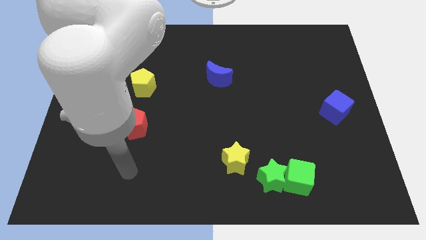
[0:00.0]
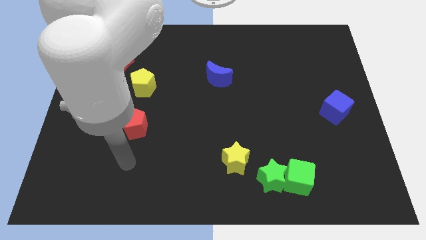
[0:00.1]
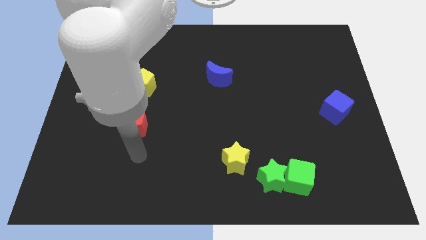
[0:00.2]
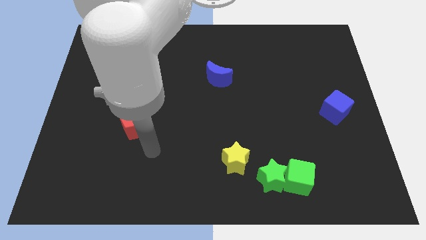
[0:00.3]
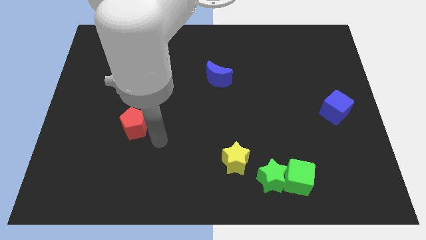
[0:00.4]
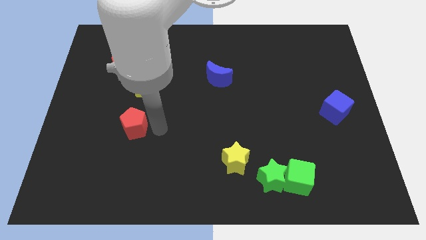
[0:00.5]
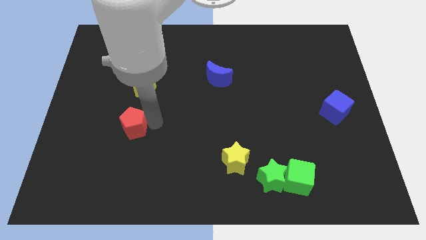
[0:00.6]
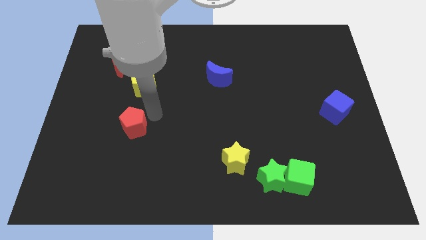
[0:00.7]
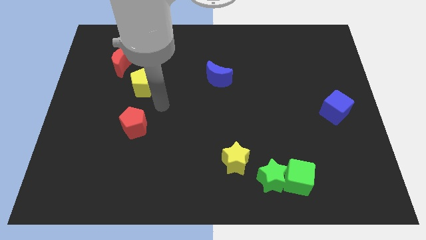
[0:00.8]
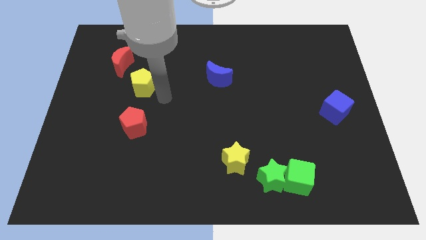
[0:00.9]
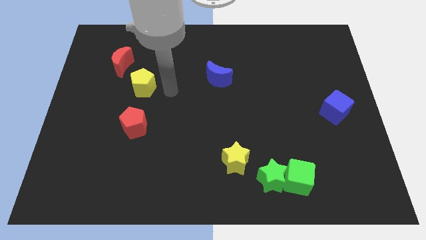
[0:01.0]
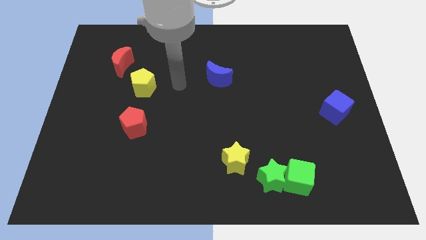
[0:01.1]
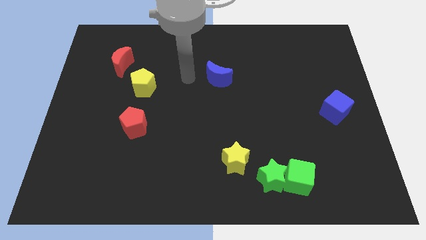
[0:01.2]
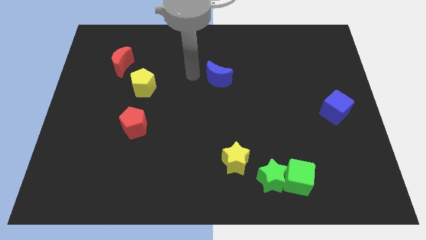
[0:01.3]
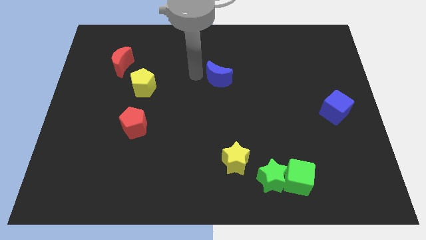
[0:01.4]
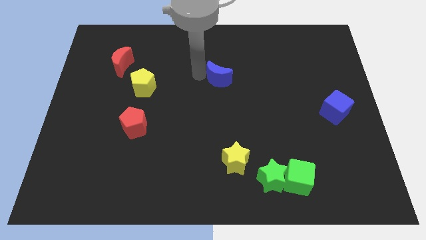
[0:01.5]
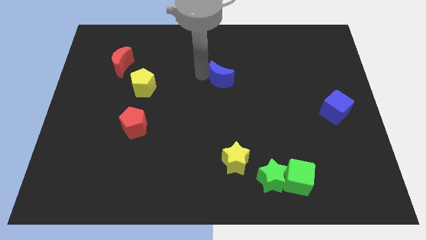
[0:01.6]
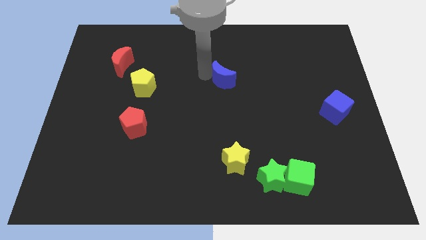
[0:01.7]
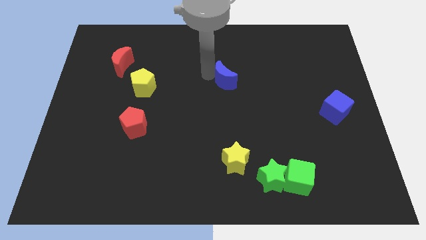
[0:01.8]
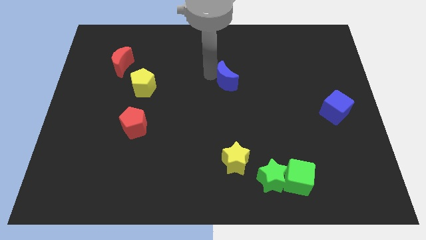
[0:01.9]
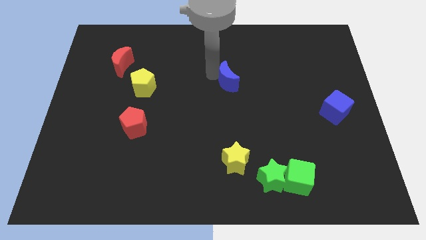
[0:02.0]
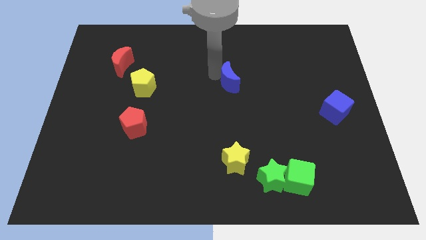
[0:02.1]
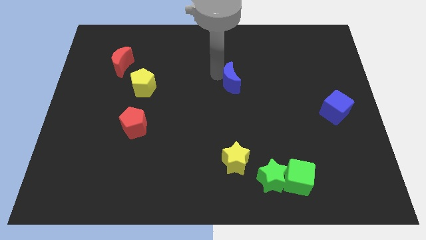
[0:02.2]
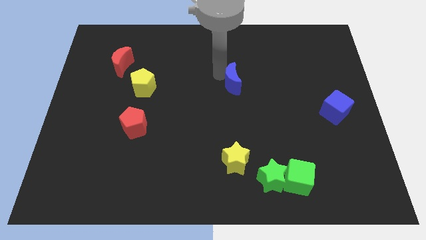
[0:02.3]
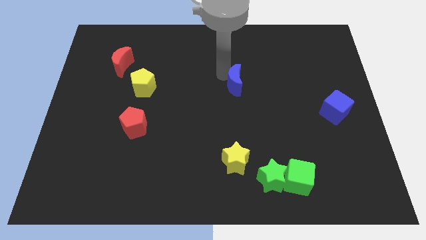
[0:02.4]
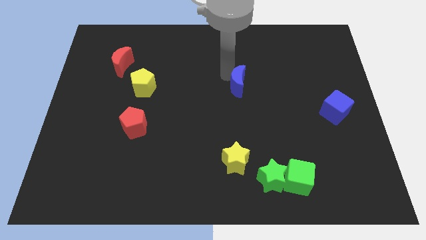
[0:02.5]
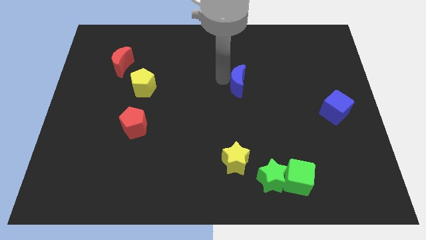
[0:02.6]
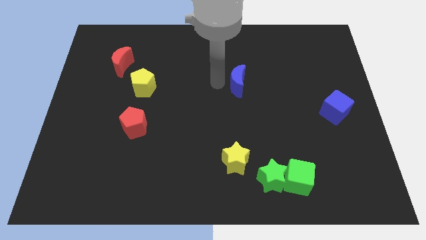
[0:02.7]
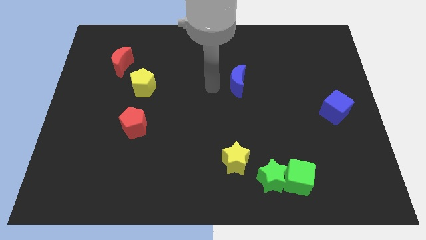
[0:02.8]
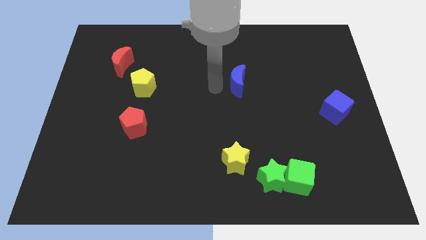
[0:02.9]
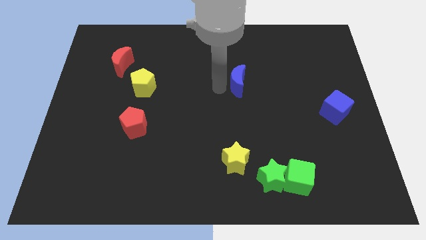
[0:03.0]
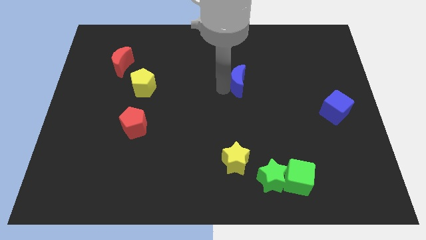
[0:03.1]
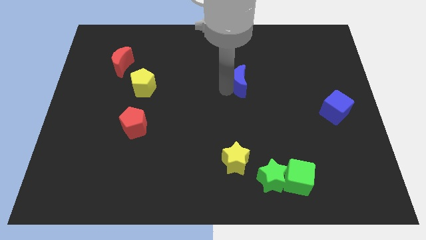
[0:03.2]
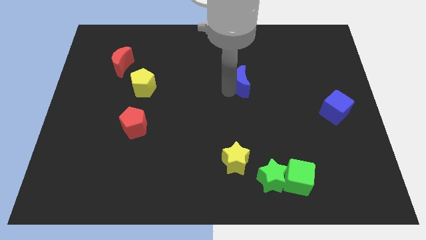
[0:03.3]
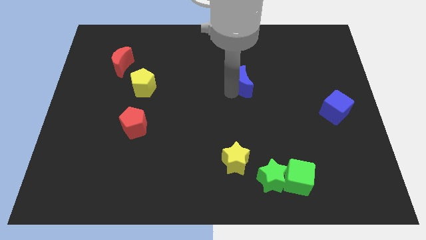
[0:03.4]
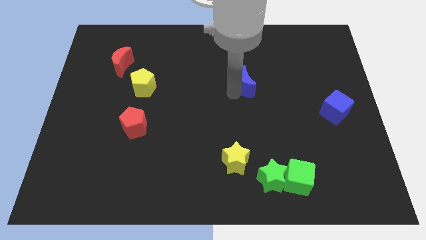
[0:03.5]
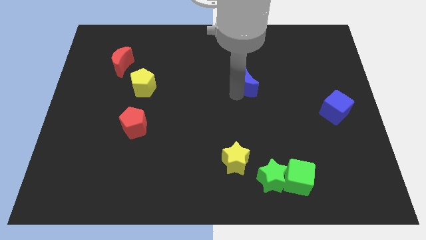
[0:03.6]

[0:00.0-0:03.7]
slide the blue moon slightly to the right

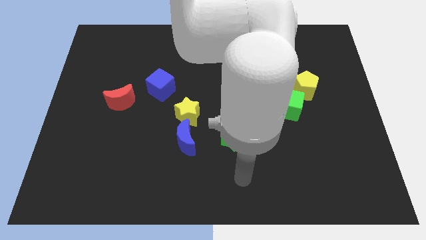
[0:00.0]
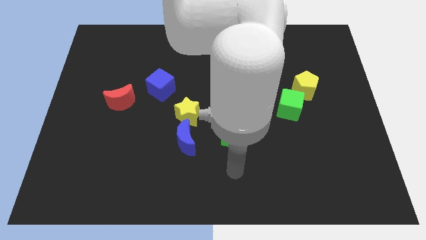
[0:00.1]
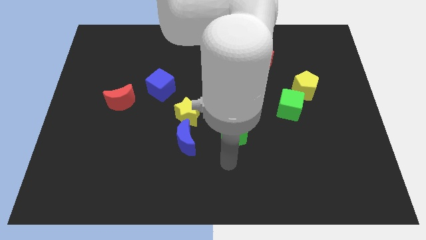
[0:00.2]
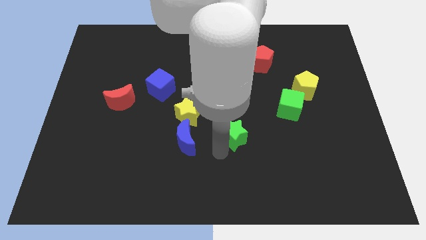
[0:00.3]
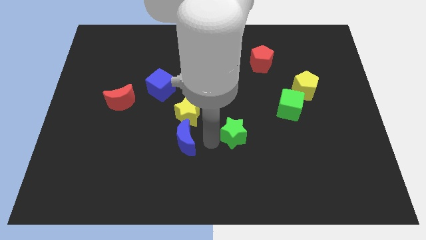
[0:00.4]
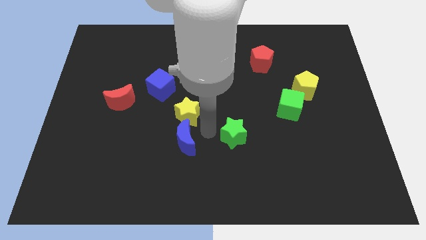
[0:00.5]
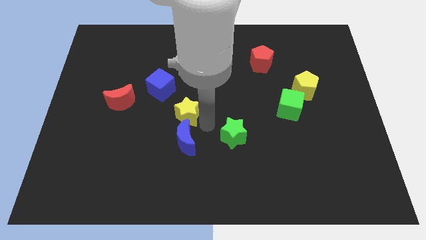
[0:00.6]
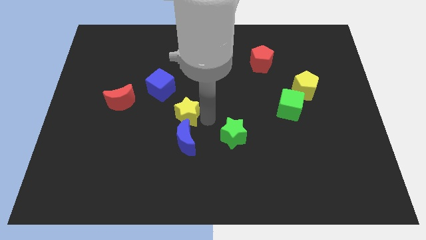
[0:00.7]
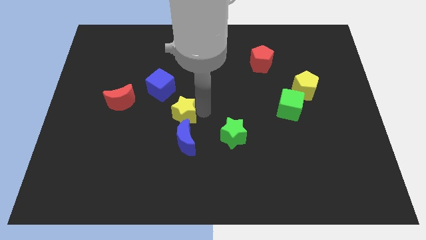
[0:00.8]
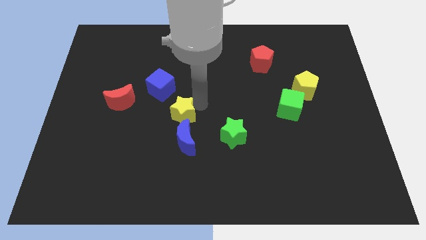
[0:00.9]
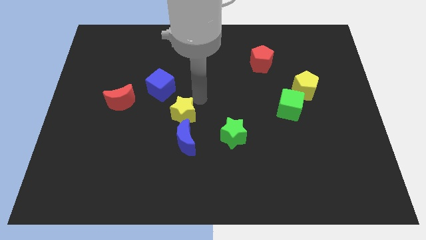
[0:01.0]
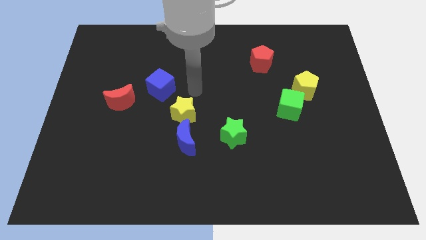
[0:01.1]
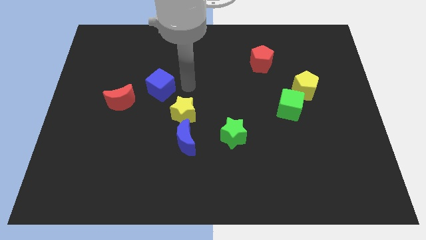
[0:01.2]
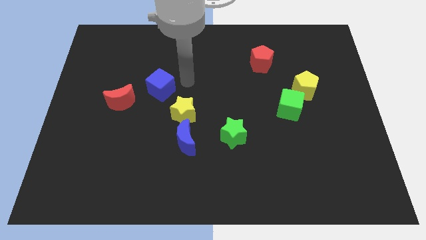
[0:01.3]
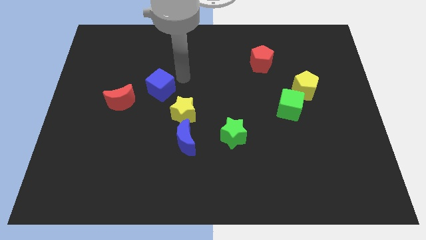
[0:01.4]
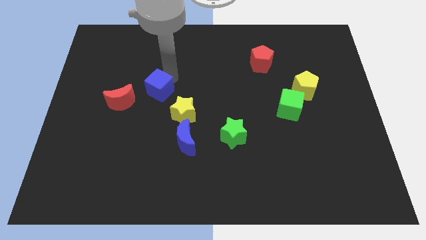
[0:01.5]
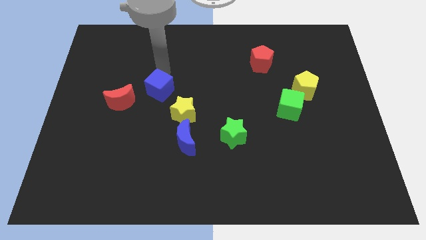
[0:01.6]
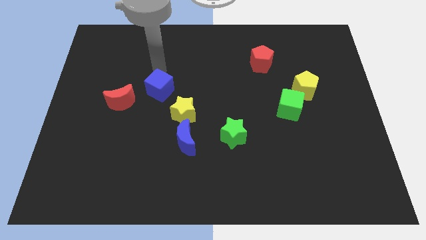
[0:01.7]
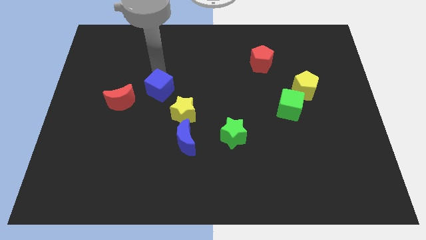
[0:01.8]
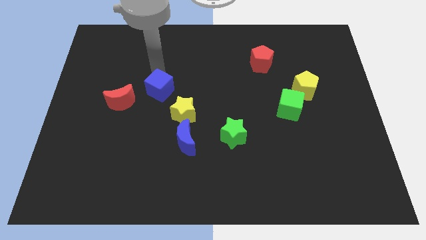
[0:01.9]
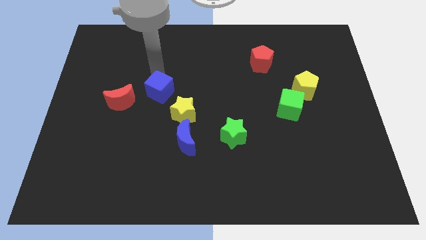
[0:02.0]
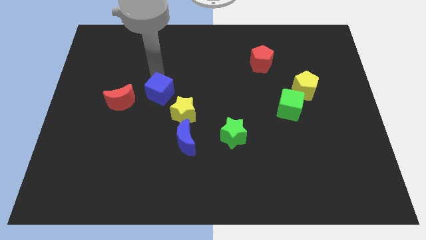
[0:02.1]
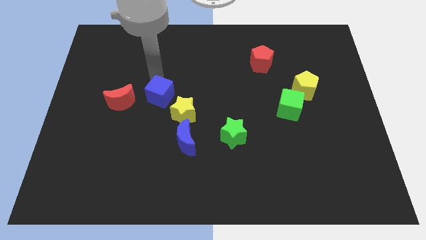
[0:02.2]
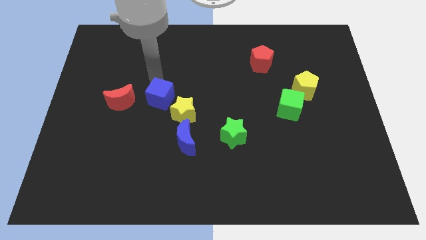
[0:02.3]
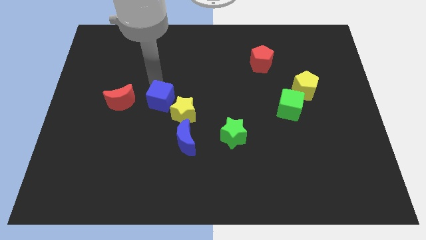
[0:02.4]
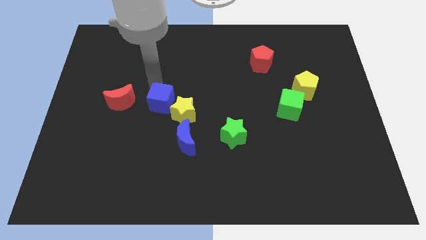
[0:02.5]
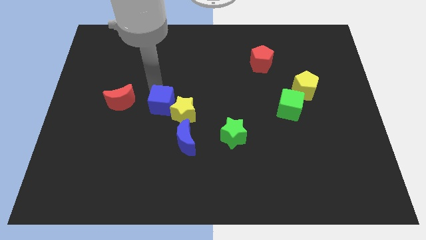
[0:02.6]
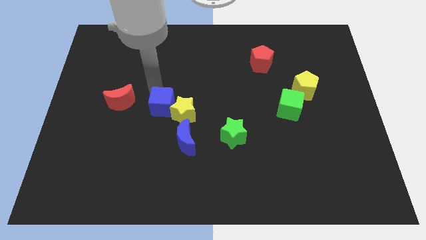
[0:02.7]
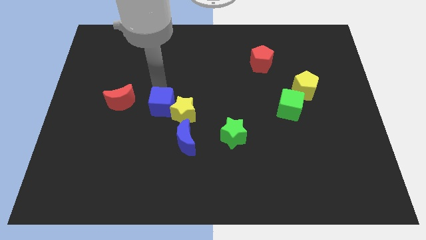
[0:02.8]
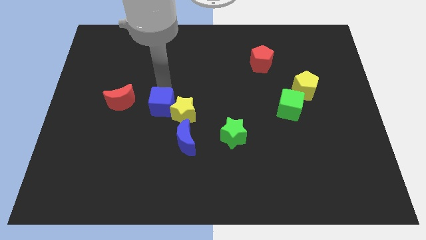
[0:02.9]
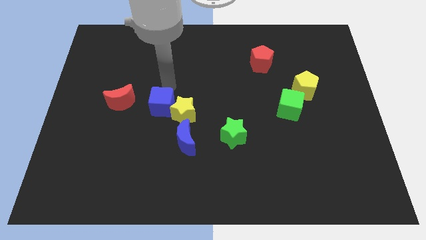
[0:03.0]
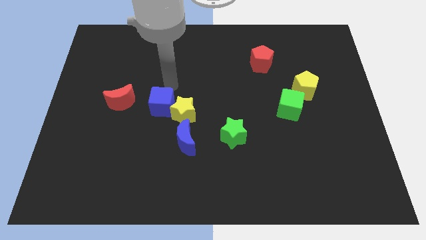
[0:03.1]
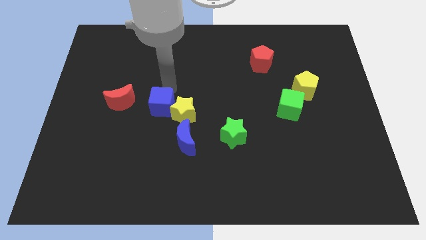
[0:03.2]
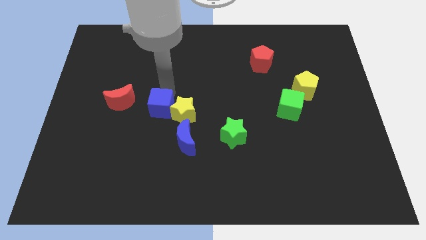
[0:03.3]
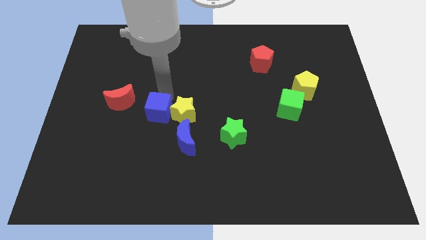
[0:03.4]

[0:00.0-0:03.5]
slide the blue cube a bit down

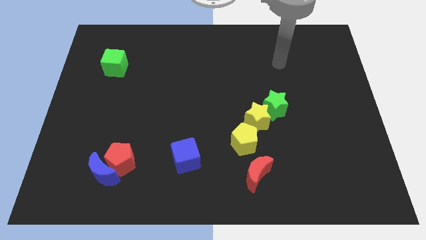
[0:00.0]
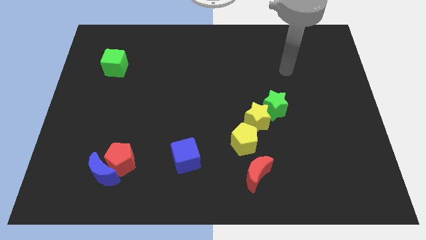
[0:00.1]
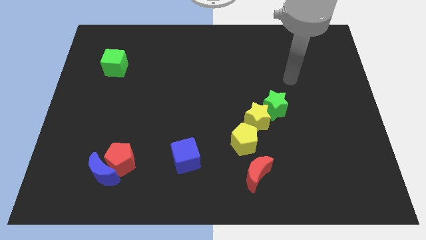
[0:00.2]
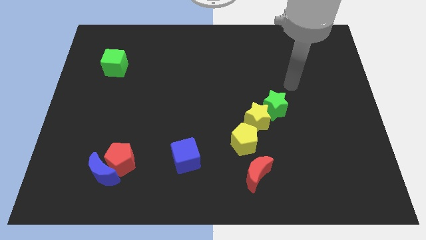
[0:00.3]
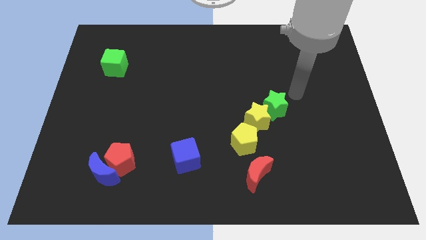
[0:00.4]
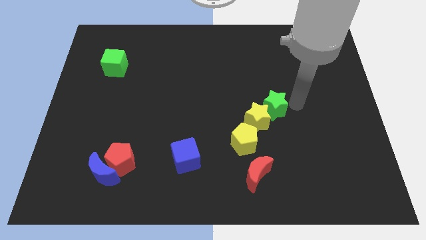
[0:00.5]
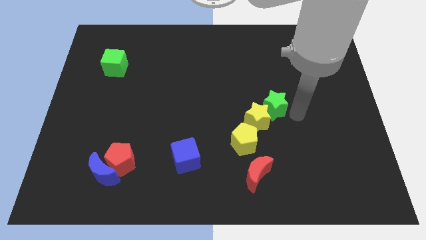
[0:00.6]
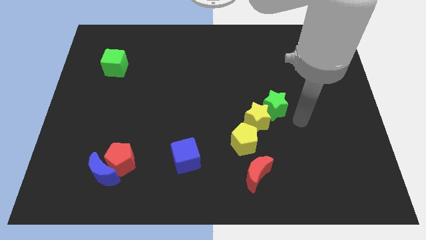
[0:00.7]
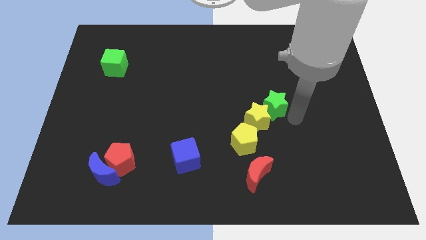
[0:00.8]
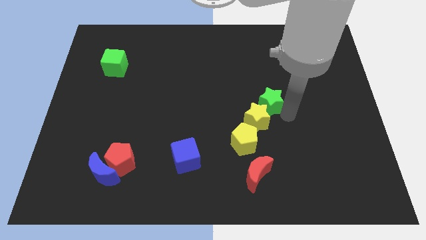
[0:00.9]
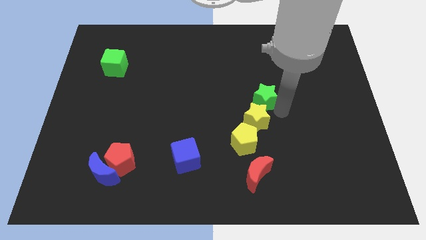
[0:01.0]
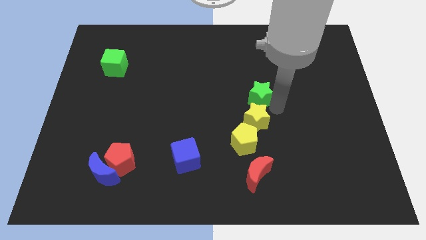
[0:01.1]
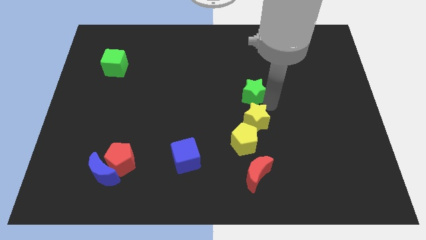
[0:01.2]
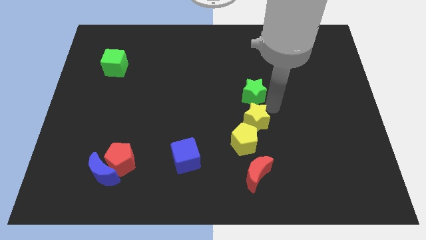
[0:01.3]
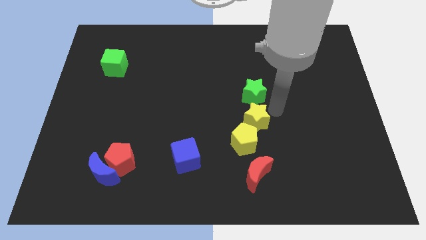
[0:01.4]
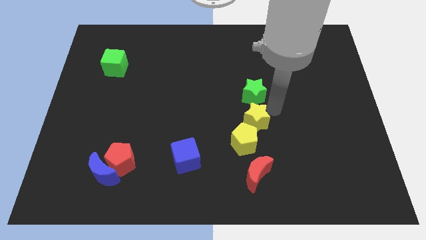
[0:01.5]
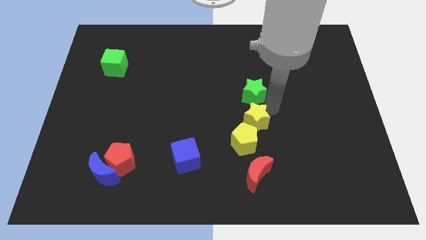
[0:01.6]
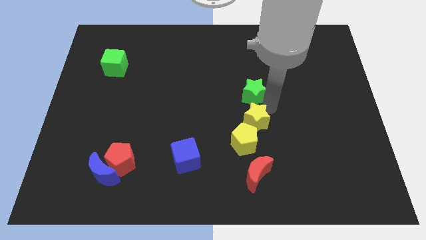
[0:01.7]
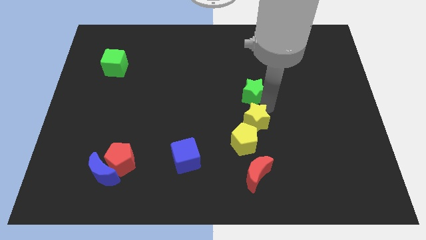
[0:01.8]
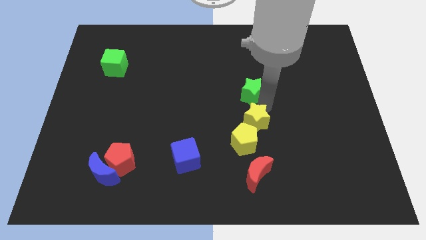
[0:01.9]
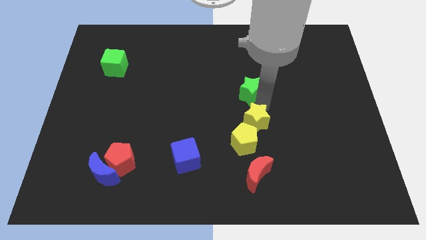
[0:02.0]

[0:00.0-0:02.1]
slightly push the green star up and to the left
